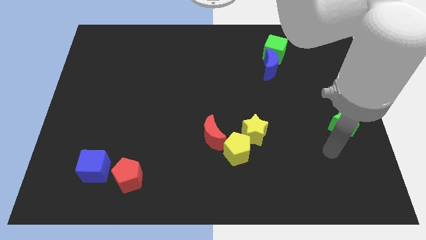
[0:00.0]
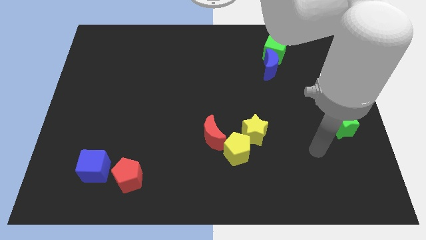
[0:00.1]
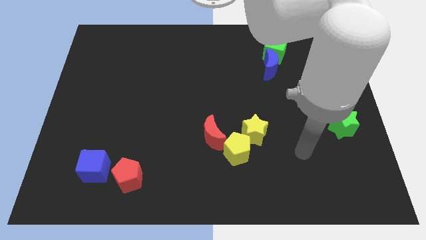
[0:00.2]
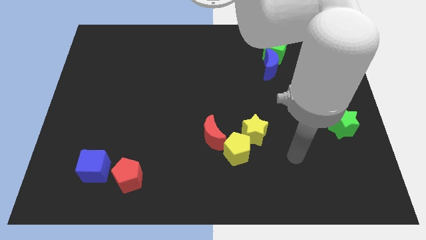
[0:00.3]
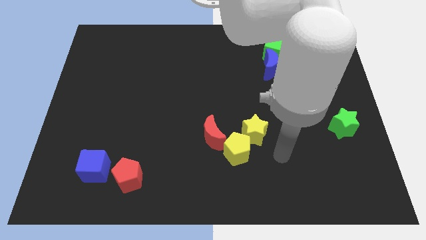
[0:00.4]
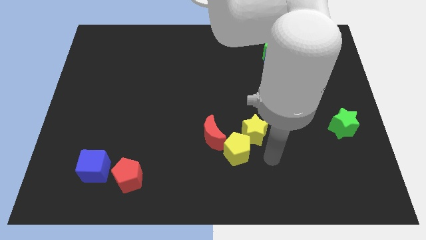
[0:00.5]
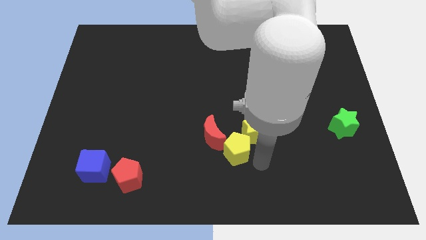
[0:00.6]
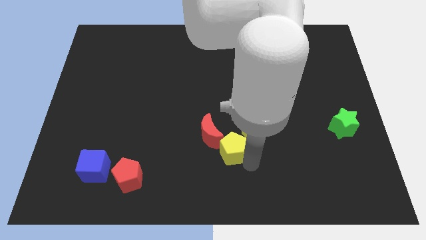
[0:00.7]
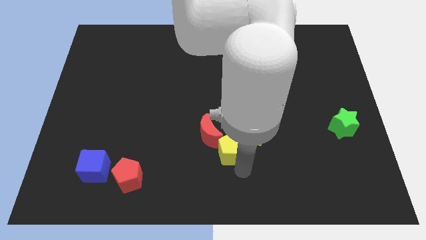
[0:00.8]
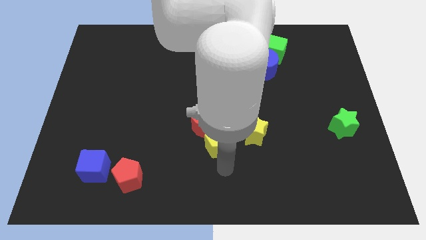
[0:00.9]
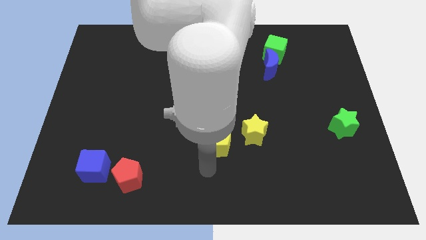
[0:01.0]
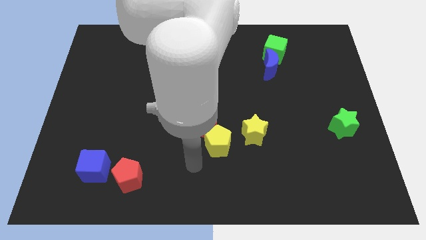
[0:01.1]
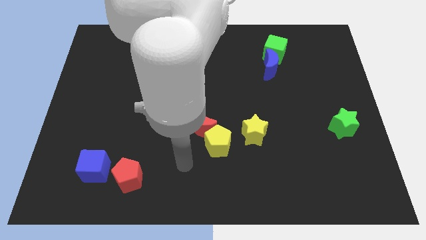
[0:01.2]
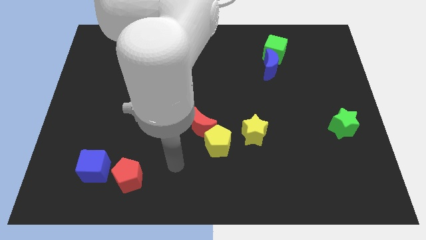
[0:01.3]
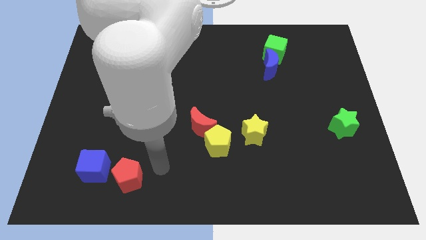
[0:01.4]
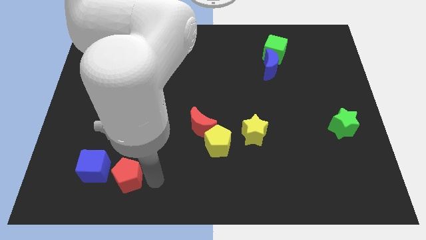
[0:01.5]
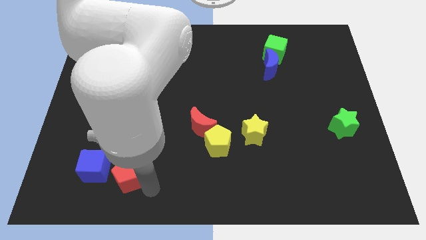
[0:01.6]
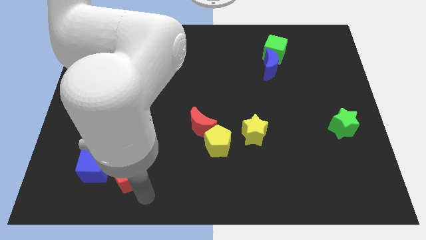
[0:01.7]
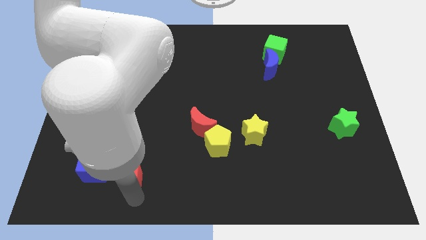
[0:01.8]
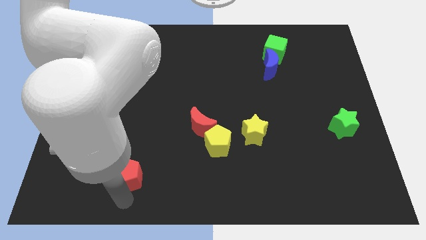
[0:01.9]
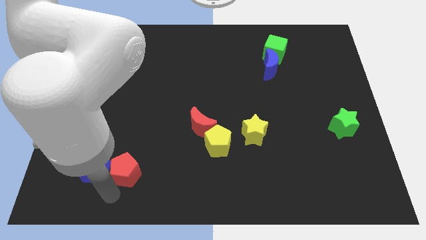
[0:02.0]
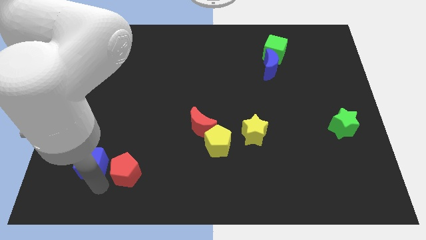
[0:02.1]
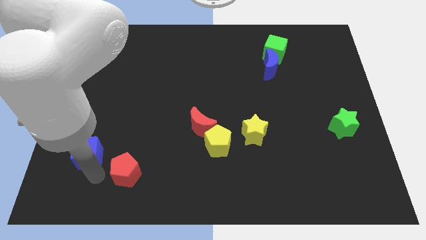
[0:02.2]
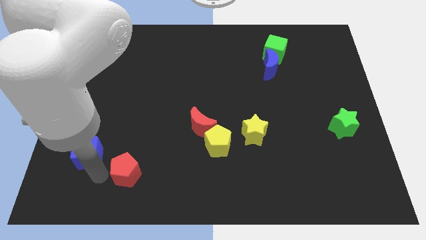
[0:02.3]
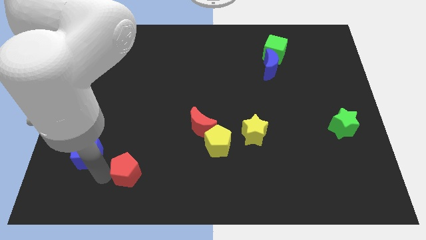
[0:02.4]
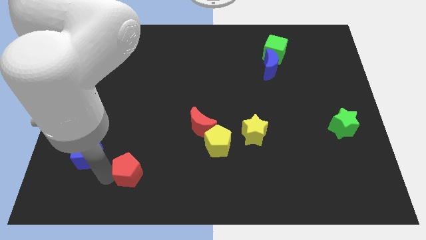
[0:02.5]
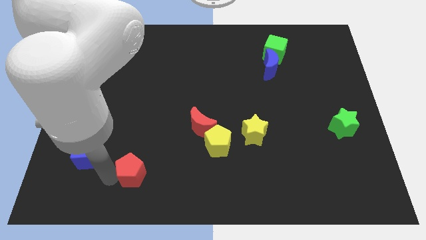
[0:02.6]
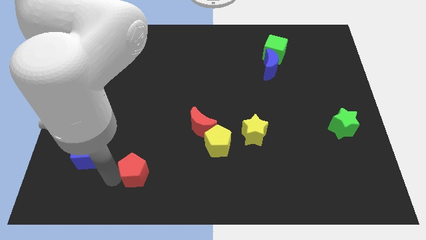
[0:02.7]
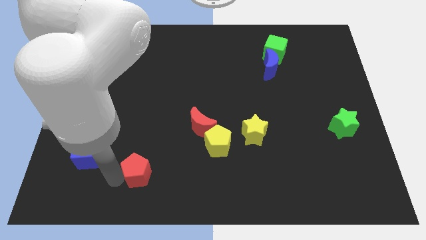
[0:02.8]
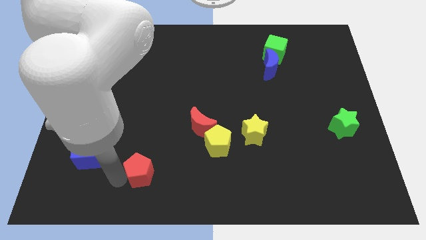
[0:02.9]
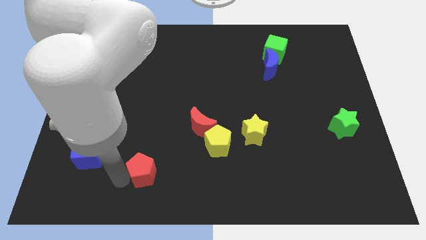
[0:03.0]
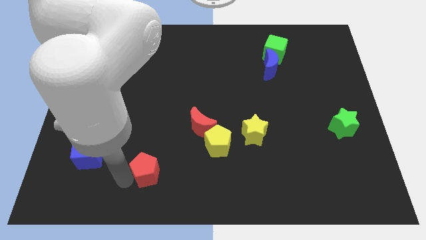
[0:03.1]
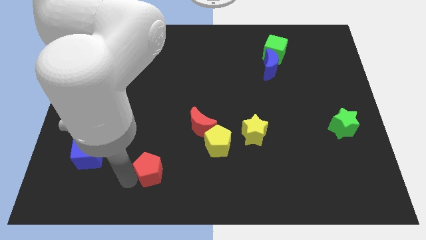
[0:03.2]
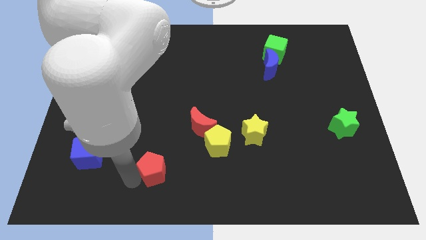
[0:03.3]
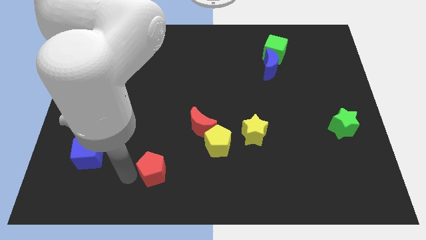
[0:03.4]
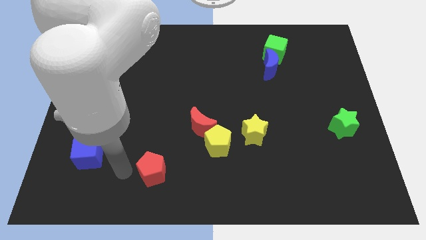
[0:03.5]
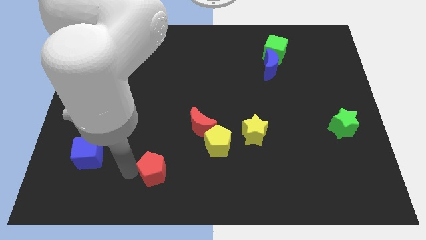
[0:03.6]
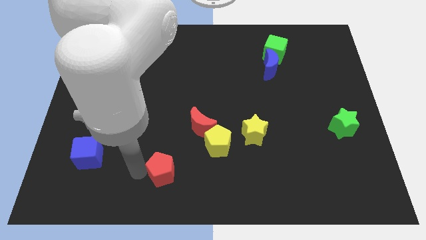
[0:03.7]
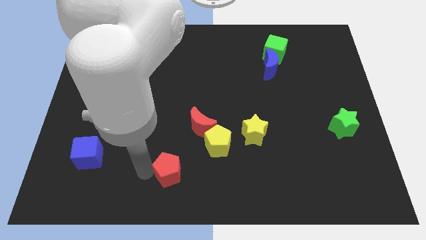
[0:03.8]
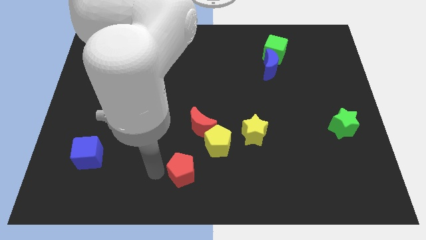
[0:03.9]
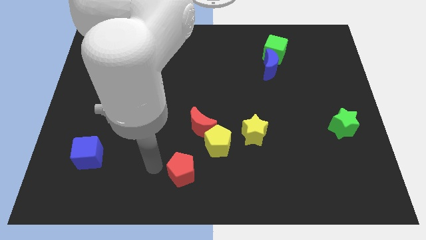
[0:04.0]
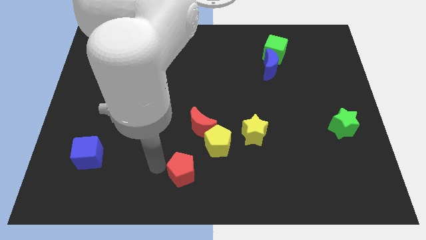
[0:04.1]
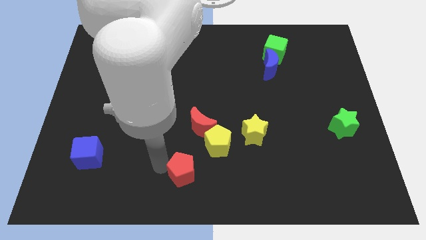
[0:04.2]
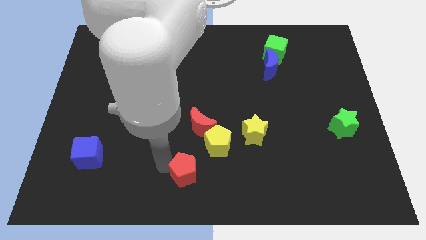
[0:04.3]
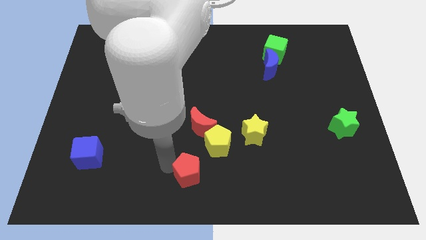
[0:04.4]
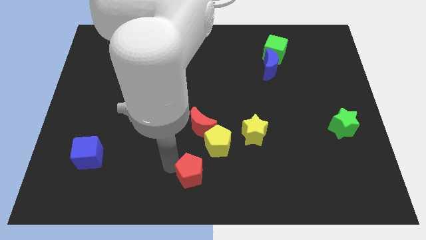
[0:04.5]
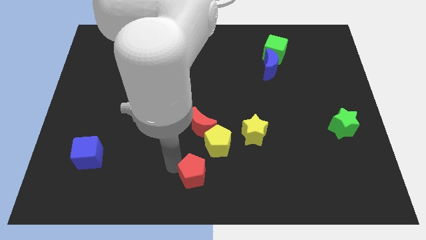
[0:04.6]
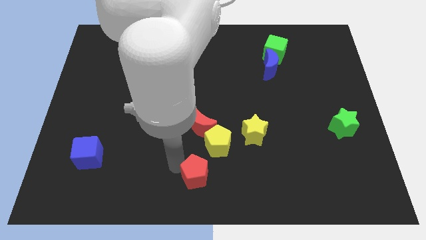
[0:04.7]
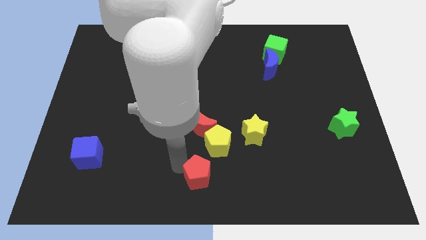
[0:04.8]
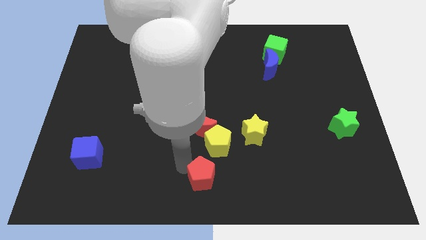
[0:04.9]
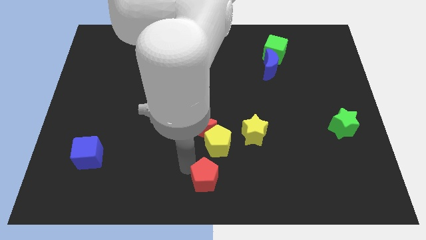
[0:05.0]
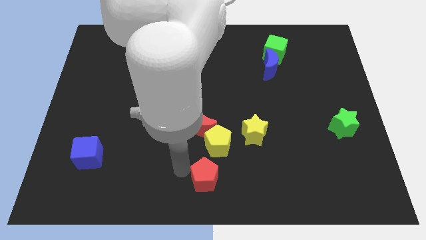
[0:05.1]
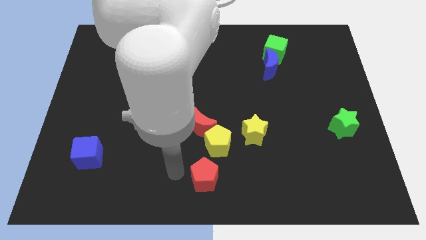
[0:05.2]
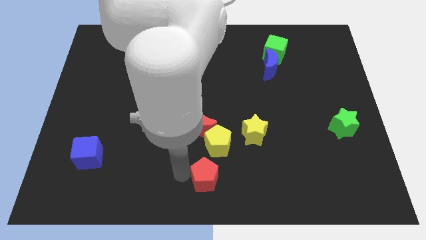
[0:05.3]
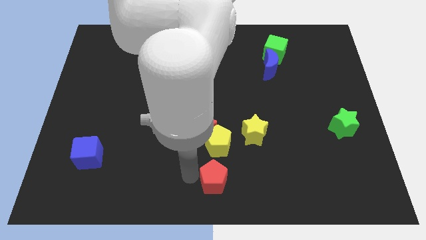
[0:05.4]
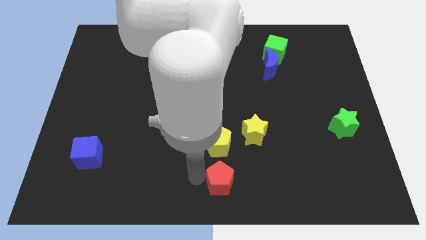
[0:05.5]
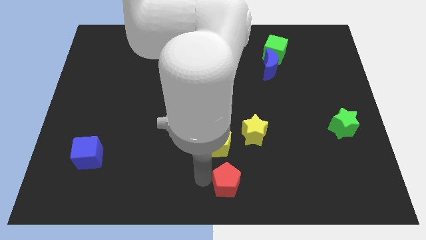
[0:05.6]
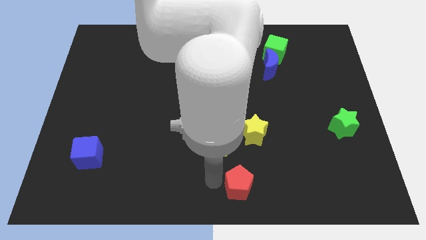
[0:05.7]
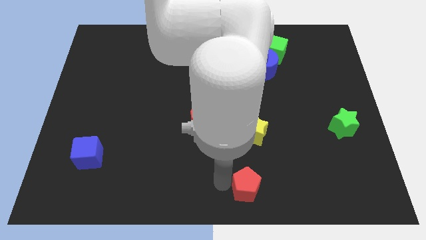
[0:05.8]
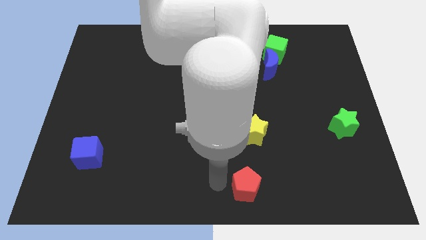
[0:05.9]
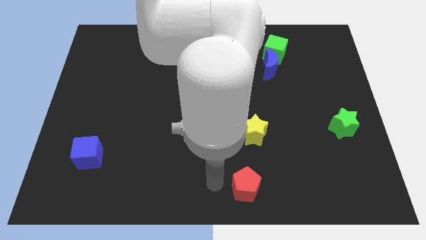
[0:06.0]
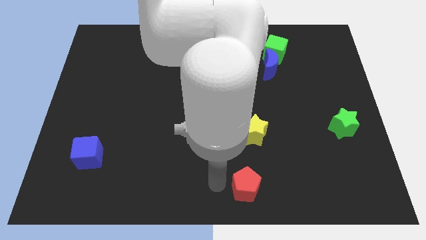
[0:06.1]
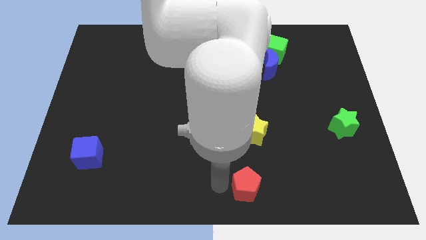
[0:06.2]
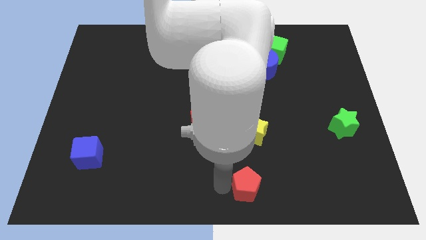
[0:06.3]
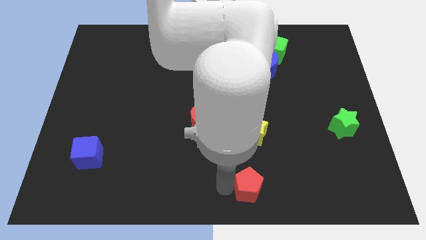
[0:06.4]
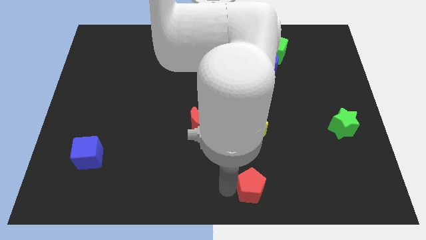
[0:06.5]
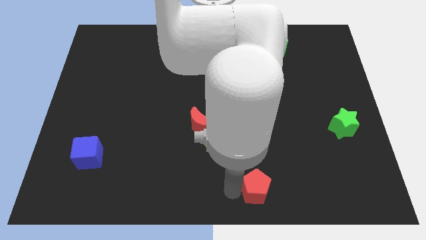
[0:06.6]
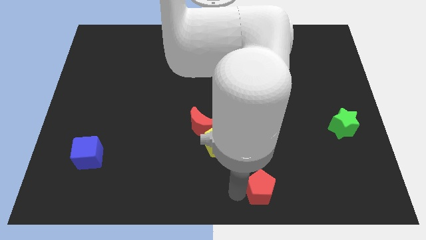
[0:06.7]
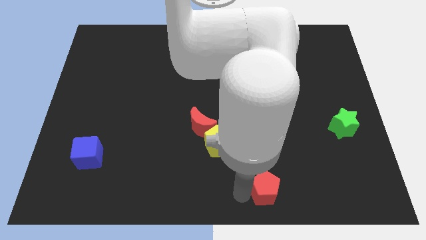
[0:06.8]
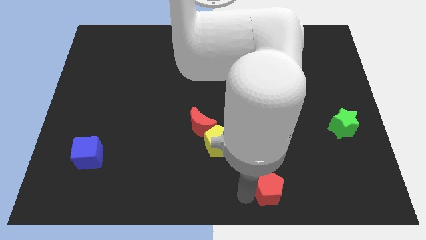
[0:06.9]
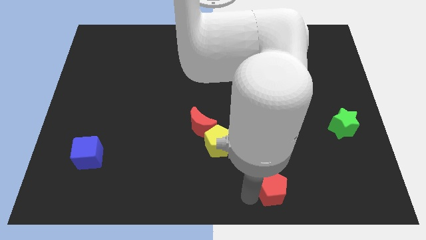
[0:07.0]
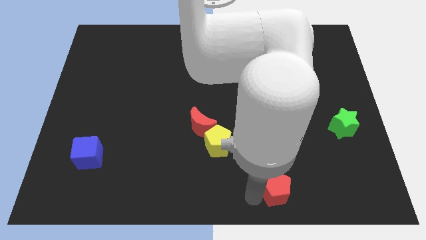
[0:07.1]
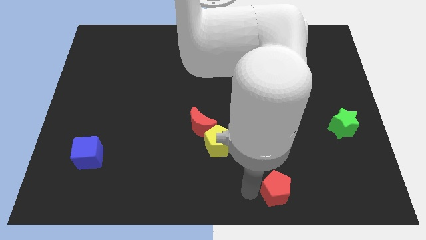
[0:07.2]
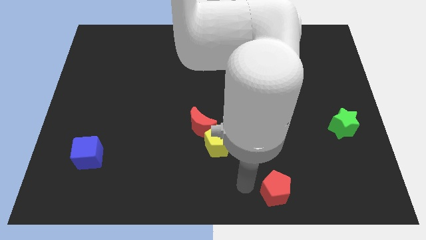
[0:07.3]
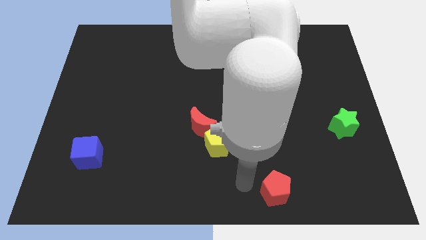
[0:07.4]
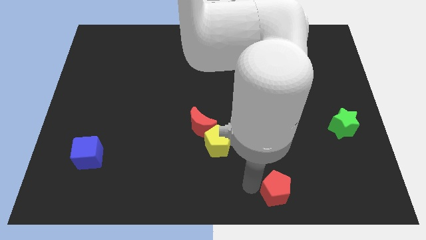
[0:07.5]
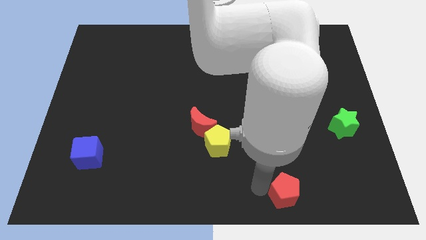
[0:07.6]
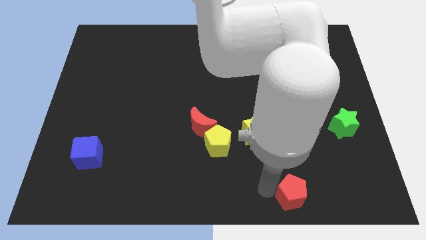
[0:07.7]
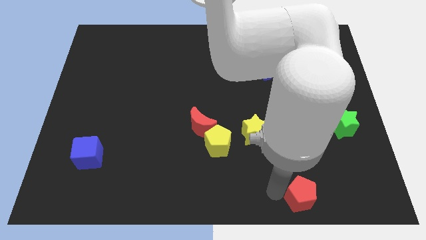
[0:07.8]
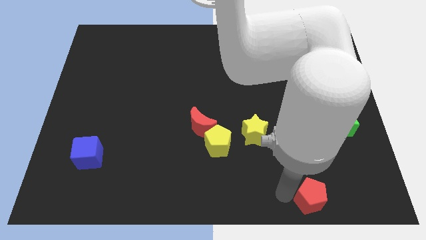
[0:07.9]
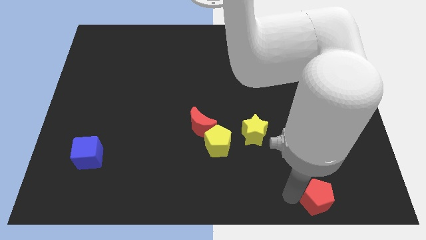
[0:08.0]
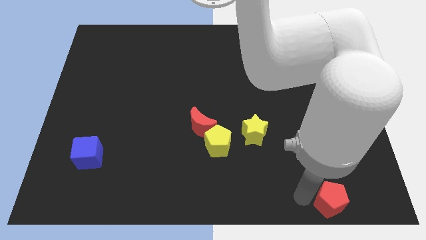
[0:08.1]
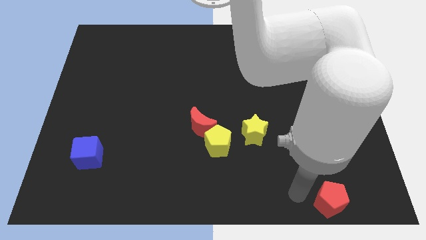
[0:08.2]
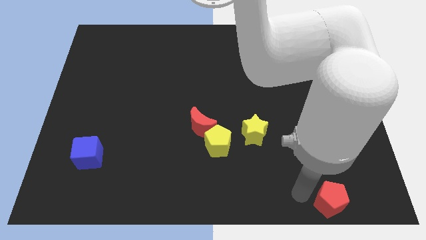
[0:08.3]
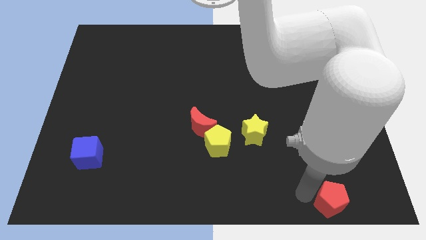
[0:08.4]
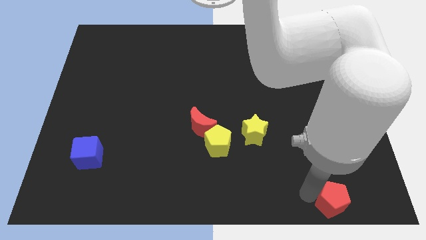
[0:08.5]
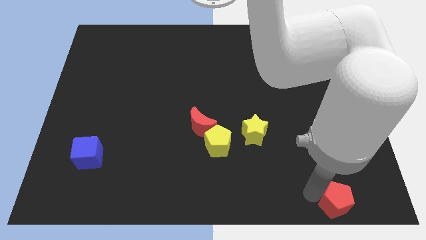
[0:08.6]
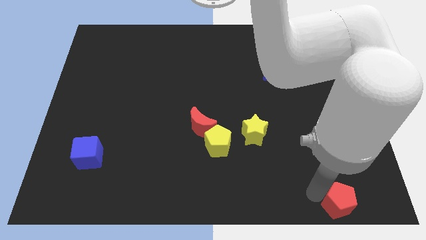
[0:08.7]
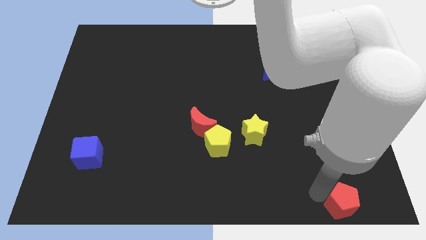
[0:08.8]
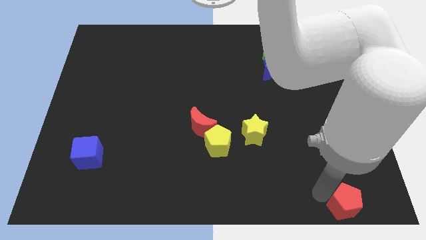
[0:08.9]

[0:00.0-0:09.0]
push the red pentagon to the bottom right
